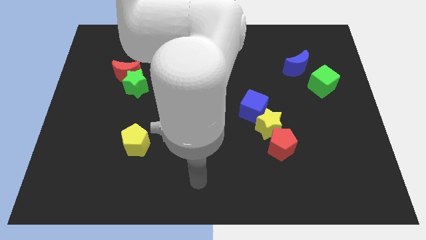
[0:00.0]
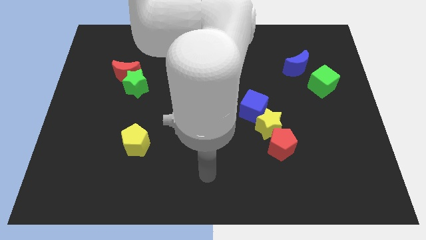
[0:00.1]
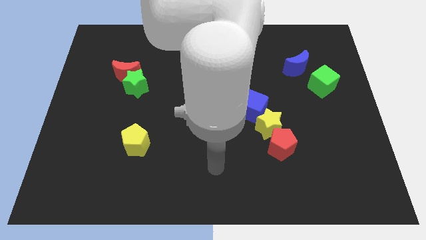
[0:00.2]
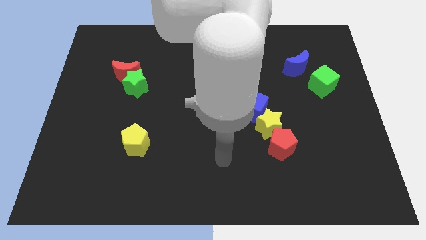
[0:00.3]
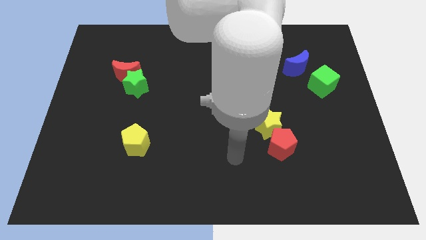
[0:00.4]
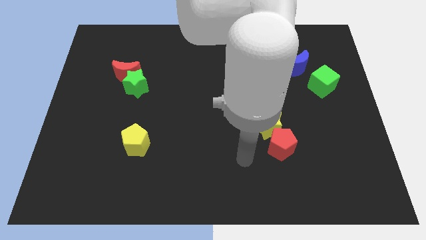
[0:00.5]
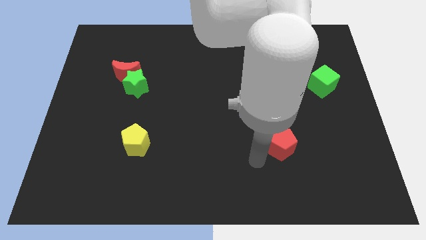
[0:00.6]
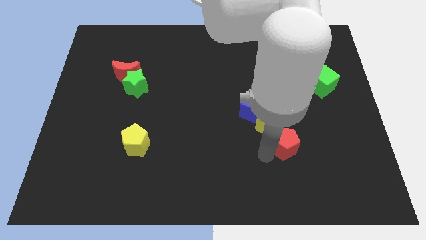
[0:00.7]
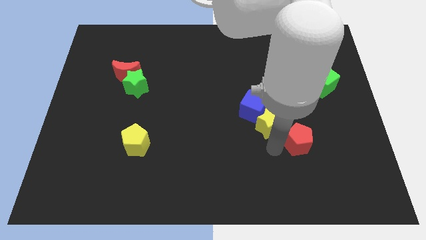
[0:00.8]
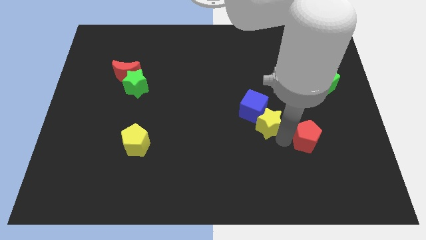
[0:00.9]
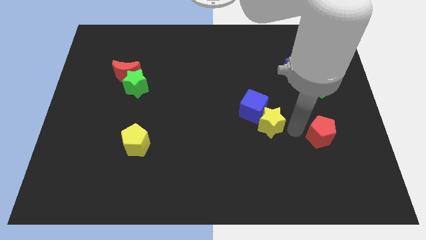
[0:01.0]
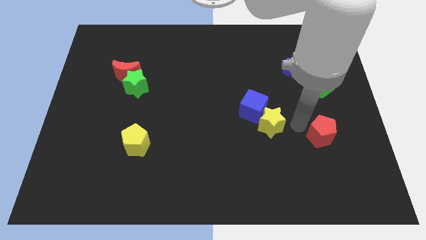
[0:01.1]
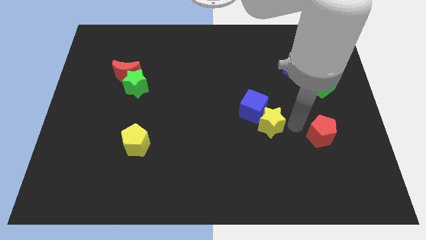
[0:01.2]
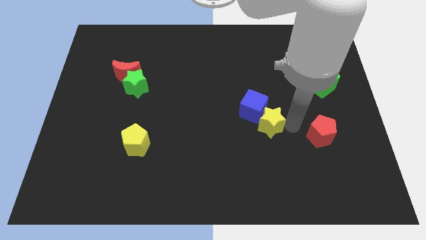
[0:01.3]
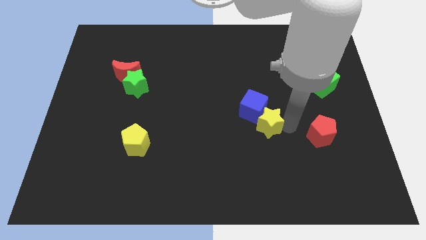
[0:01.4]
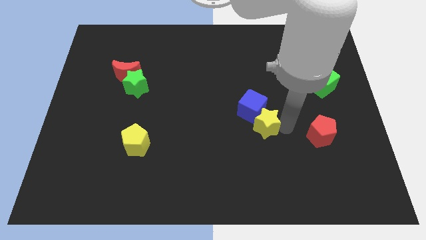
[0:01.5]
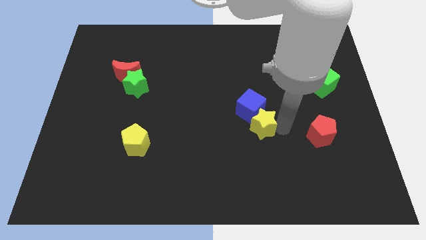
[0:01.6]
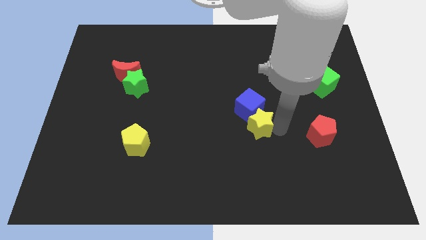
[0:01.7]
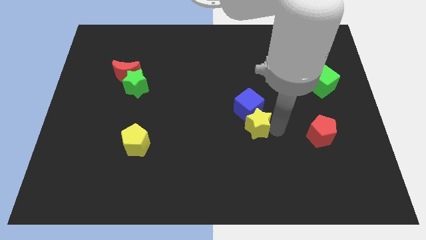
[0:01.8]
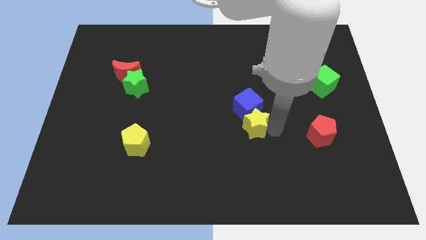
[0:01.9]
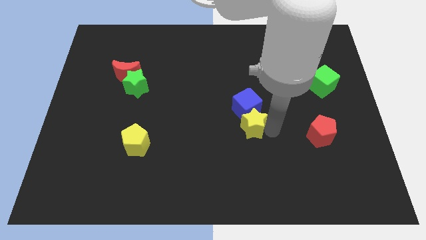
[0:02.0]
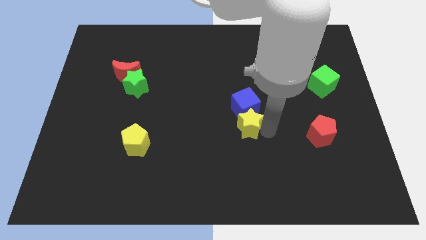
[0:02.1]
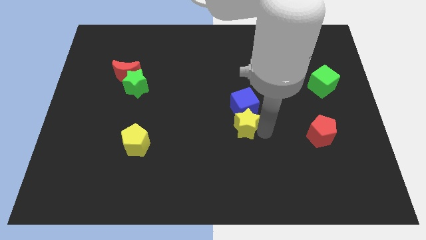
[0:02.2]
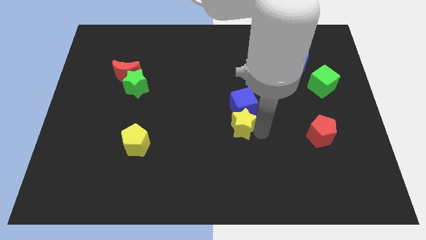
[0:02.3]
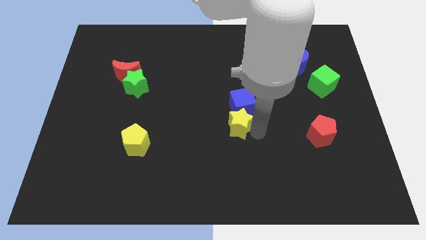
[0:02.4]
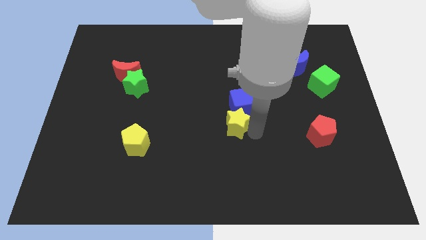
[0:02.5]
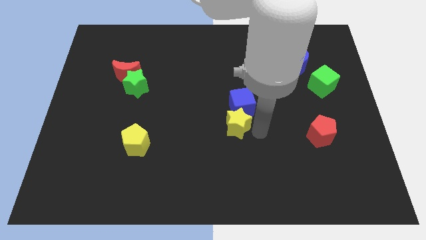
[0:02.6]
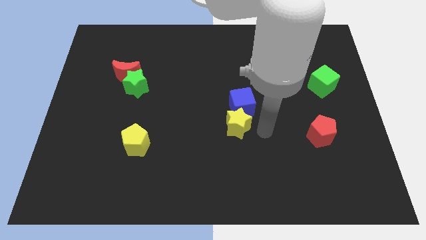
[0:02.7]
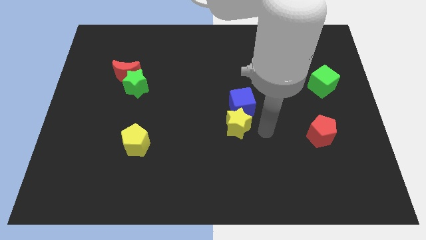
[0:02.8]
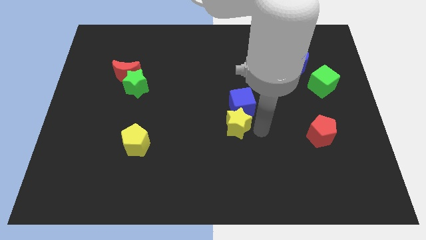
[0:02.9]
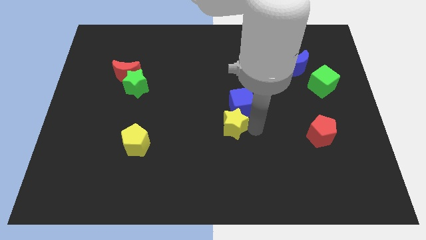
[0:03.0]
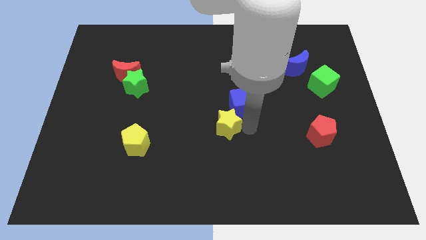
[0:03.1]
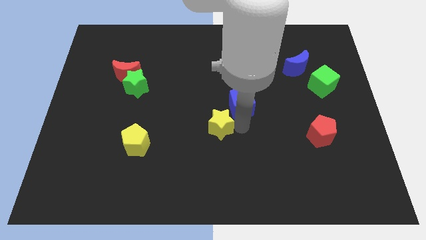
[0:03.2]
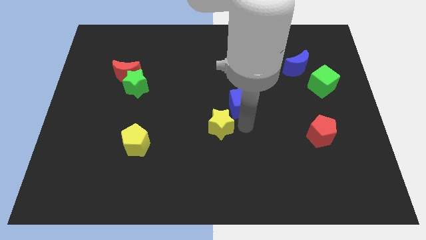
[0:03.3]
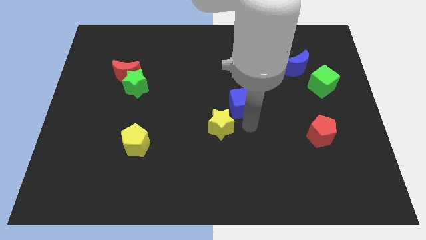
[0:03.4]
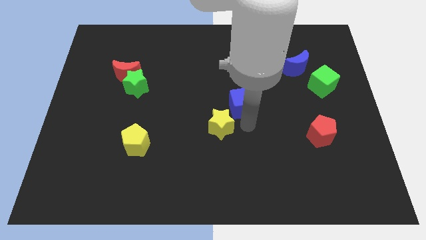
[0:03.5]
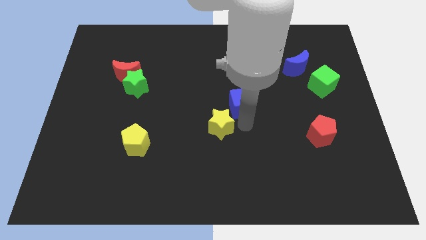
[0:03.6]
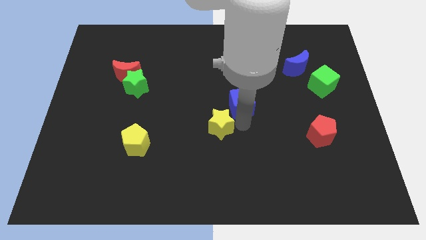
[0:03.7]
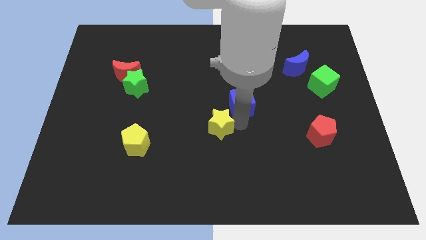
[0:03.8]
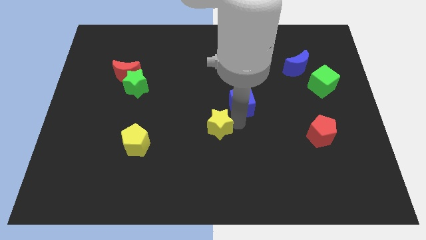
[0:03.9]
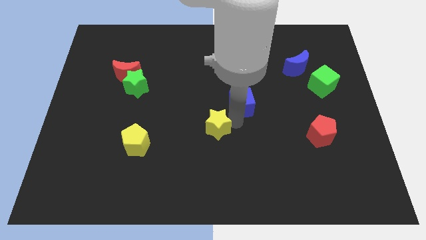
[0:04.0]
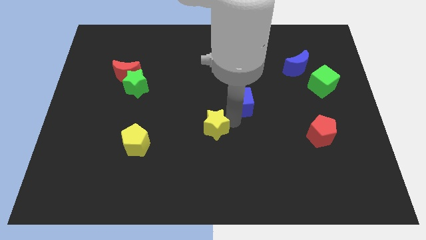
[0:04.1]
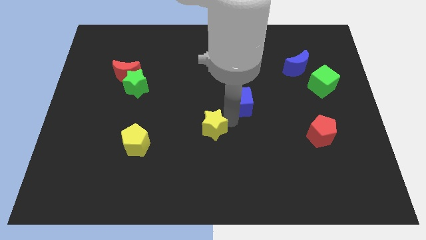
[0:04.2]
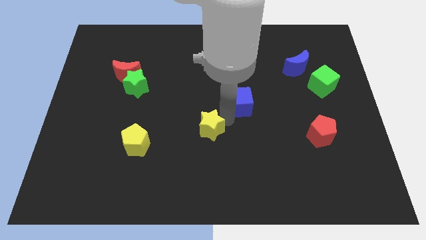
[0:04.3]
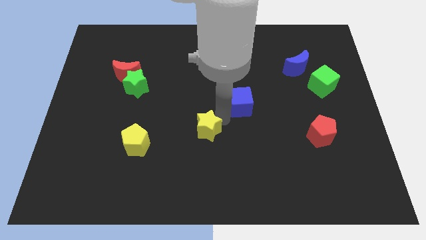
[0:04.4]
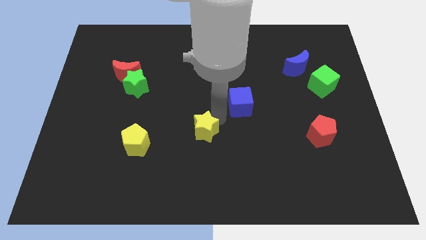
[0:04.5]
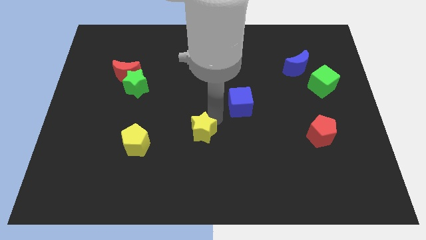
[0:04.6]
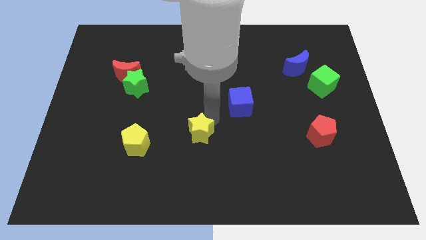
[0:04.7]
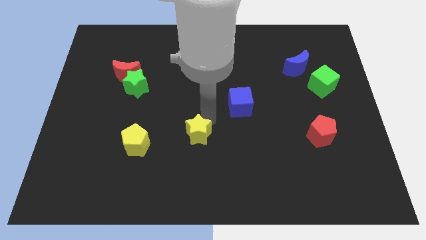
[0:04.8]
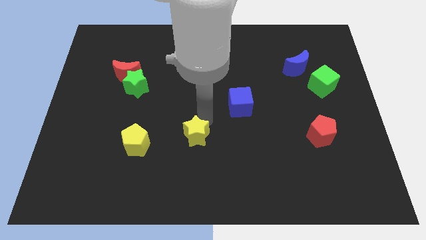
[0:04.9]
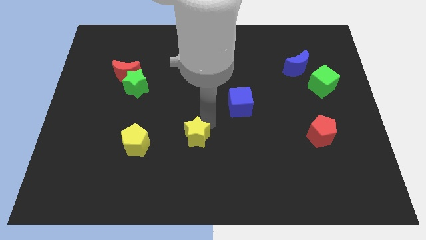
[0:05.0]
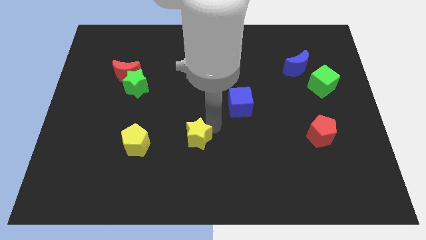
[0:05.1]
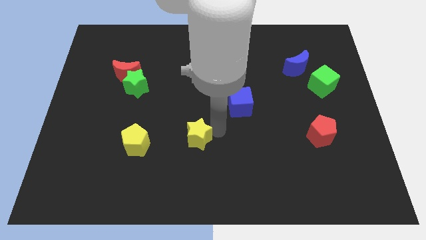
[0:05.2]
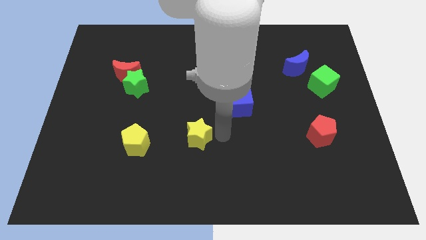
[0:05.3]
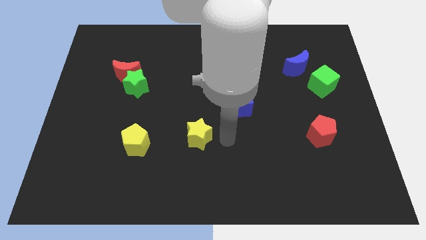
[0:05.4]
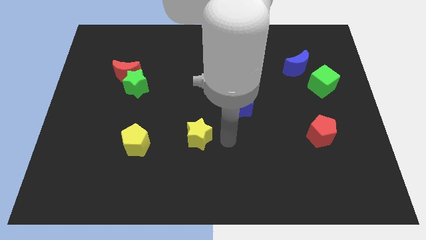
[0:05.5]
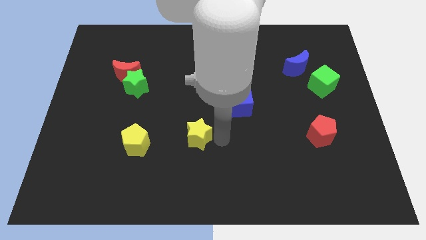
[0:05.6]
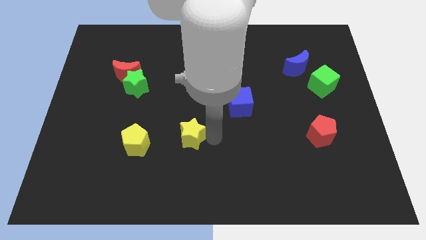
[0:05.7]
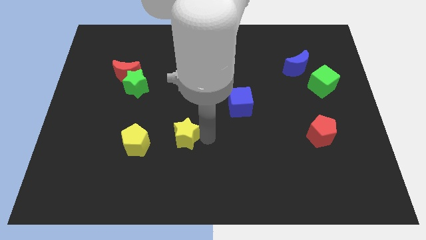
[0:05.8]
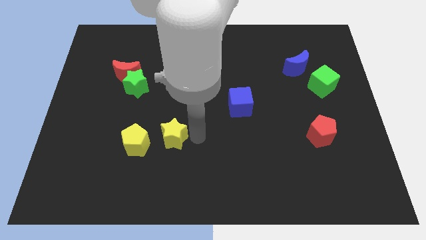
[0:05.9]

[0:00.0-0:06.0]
push the yellow star to the left

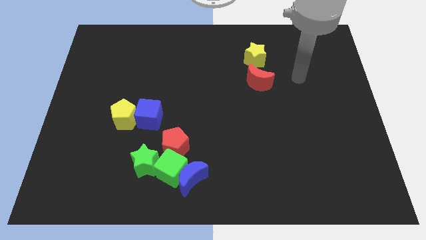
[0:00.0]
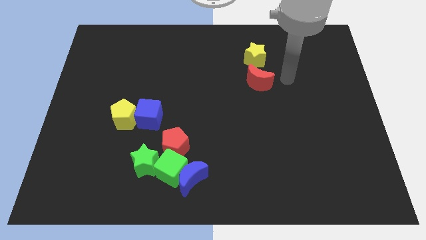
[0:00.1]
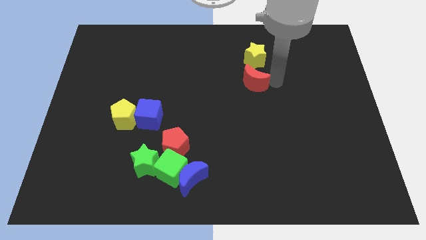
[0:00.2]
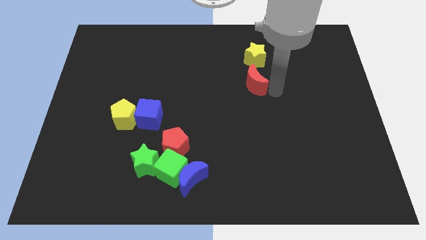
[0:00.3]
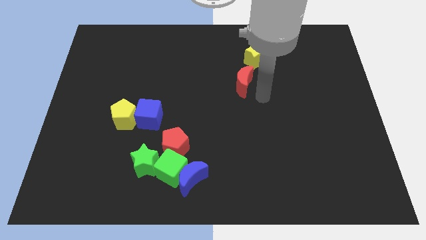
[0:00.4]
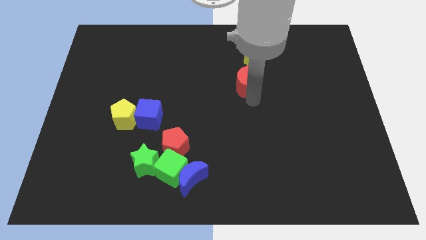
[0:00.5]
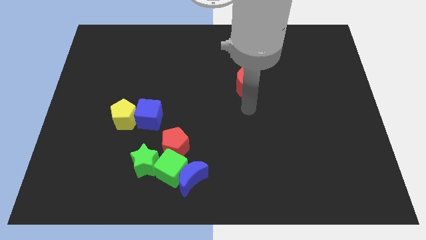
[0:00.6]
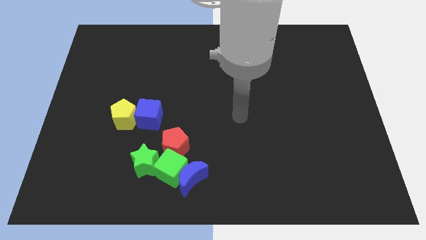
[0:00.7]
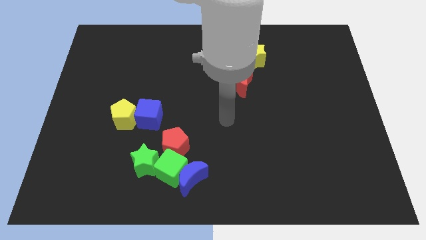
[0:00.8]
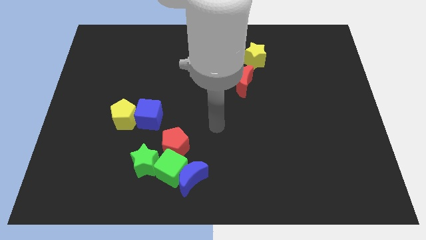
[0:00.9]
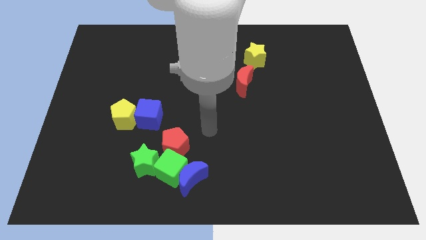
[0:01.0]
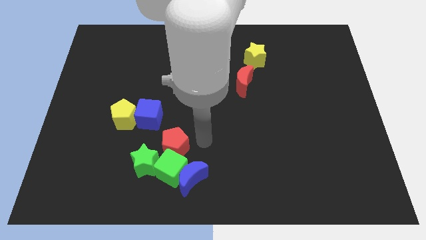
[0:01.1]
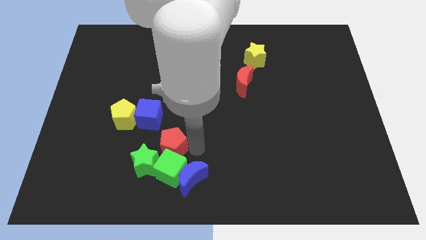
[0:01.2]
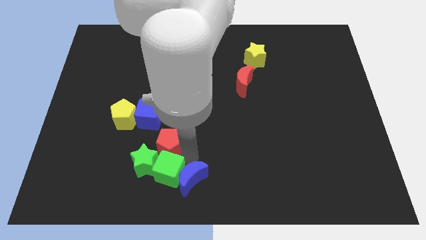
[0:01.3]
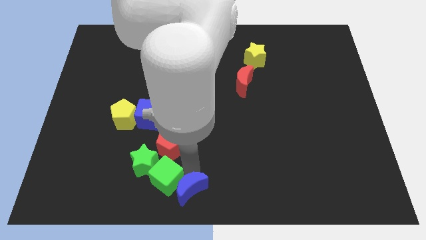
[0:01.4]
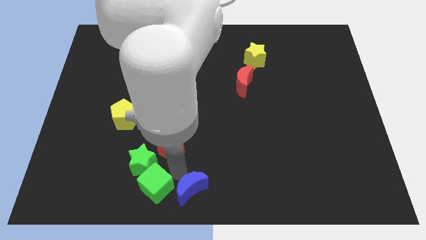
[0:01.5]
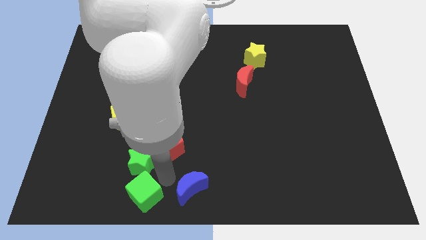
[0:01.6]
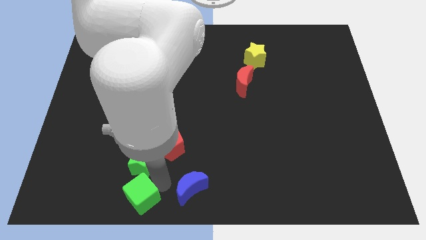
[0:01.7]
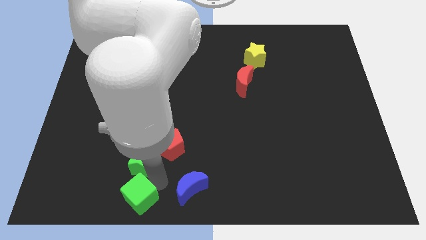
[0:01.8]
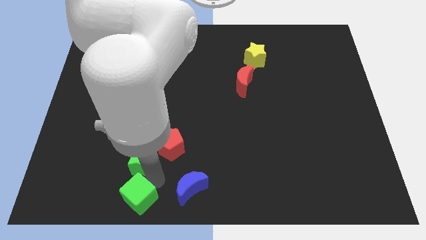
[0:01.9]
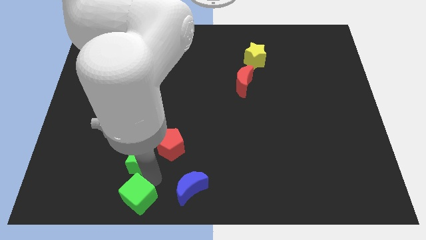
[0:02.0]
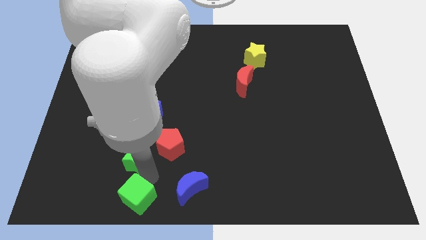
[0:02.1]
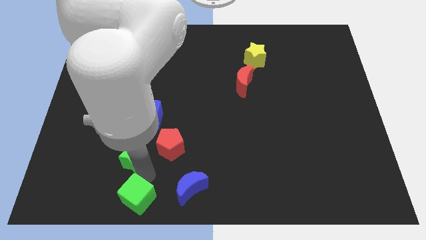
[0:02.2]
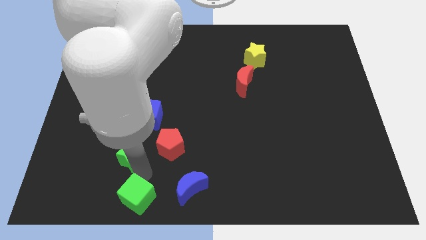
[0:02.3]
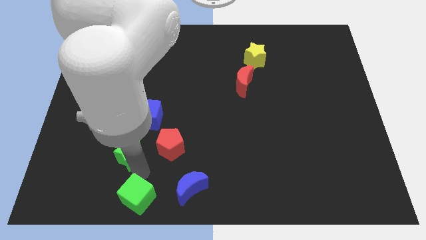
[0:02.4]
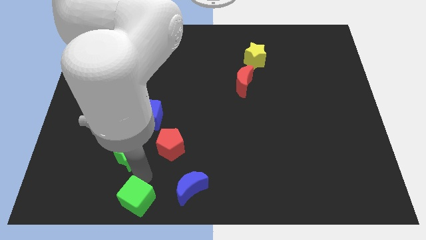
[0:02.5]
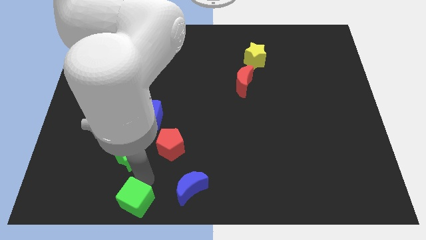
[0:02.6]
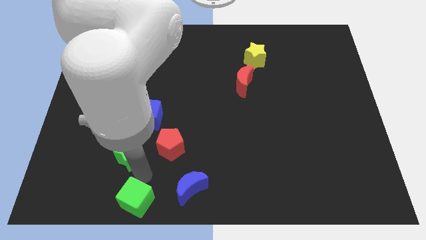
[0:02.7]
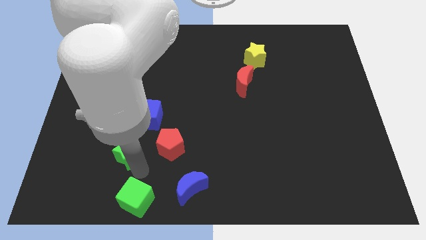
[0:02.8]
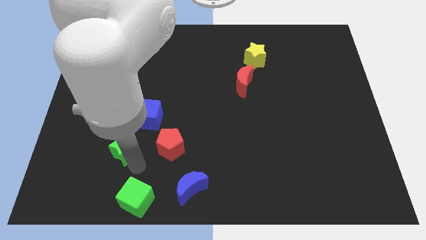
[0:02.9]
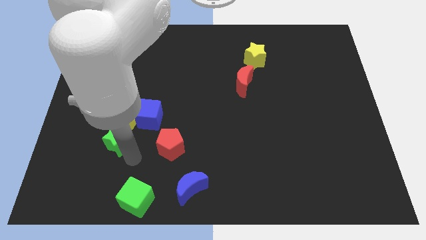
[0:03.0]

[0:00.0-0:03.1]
push the green star upwards and to the left diagonally a little
